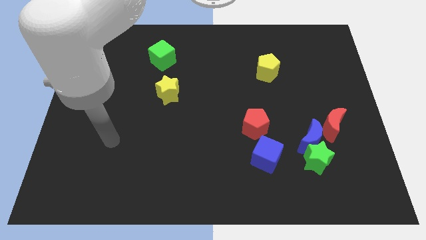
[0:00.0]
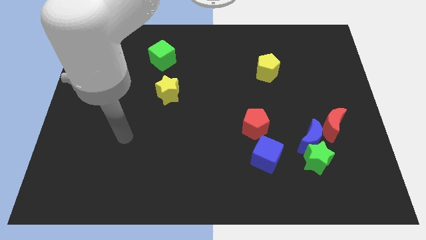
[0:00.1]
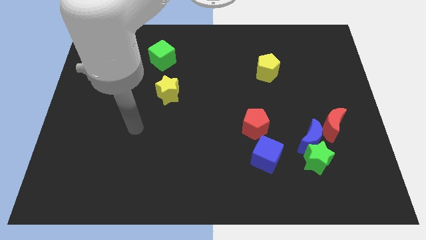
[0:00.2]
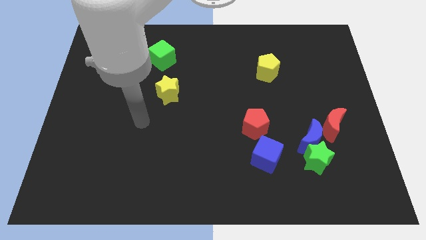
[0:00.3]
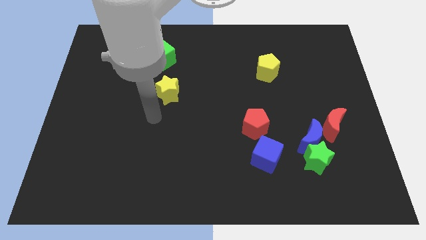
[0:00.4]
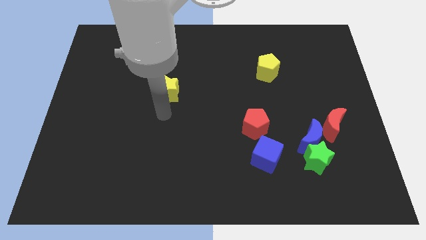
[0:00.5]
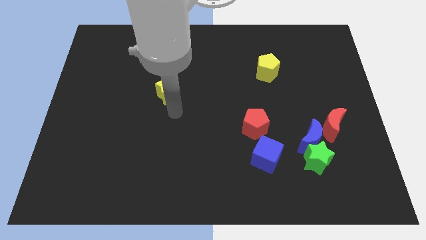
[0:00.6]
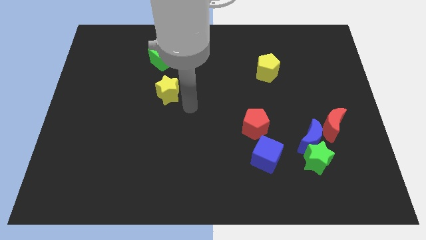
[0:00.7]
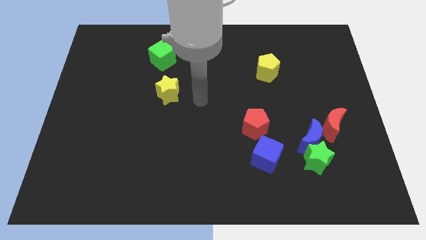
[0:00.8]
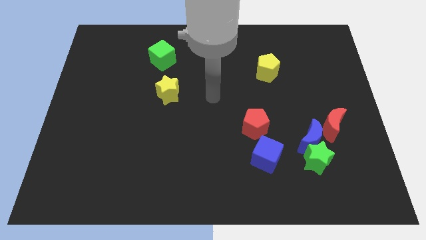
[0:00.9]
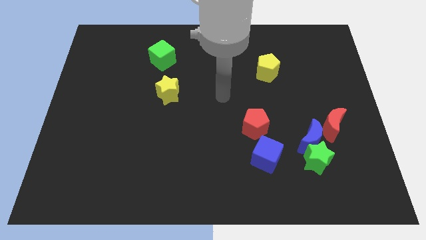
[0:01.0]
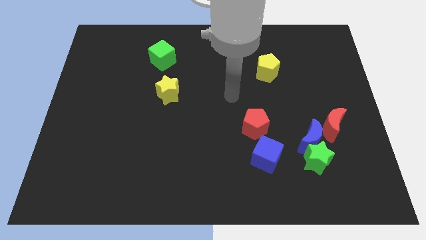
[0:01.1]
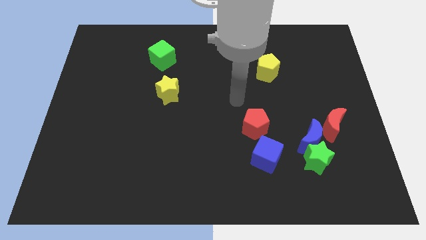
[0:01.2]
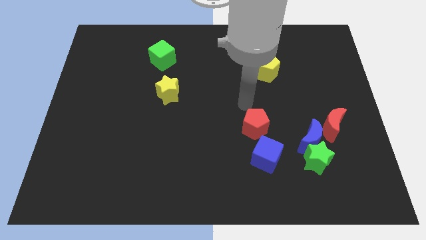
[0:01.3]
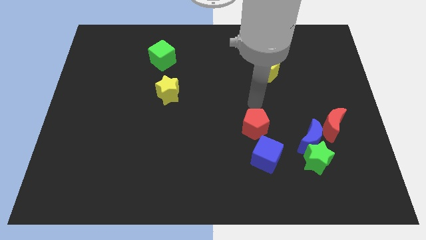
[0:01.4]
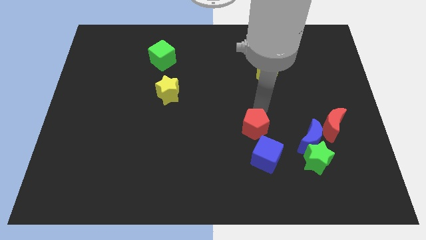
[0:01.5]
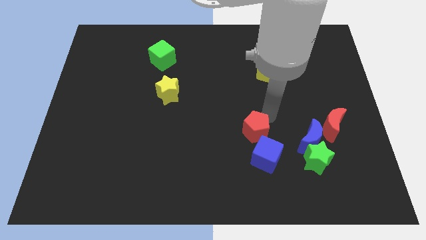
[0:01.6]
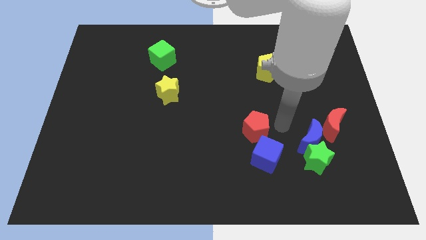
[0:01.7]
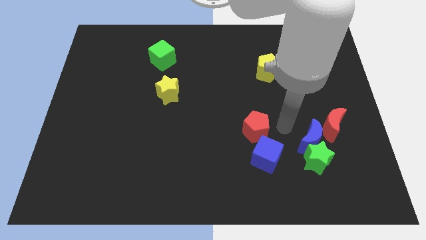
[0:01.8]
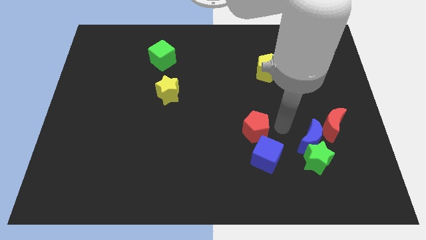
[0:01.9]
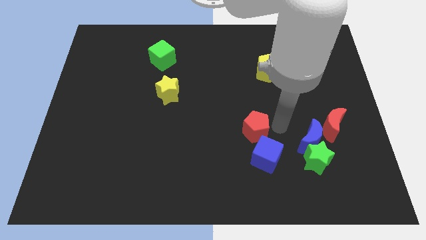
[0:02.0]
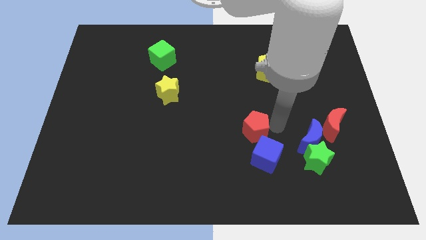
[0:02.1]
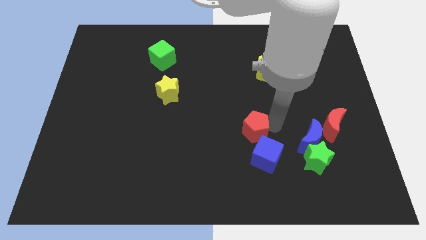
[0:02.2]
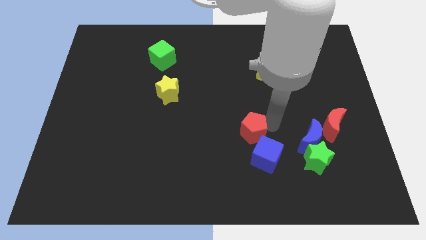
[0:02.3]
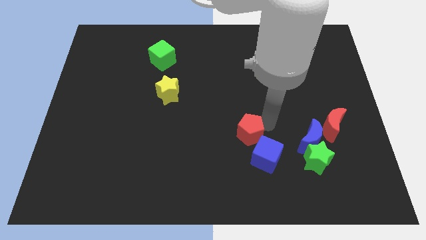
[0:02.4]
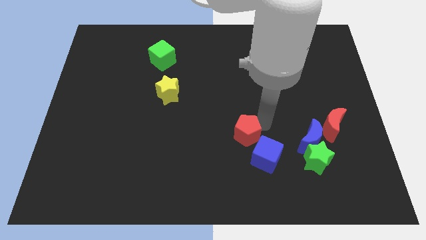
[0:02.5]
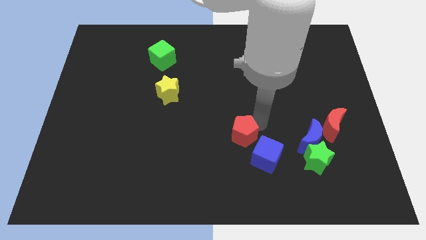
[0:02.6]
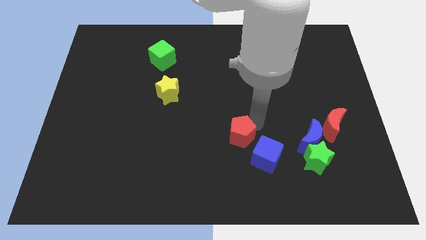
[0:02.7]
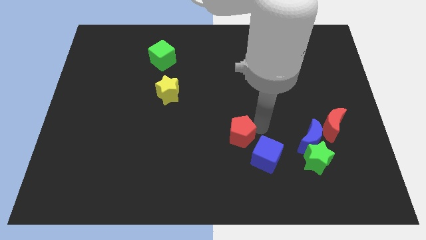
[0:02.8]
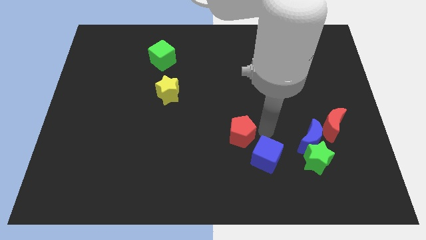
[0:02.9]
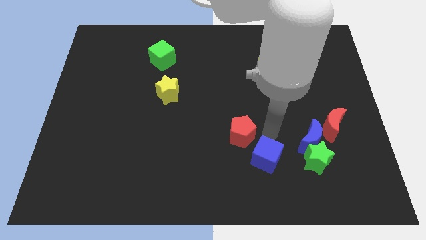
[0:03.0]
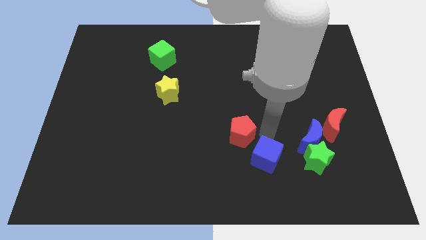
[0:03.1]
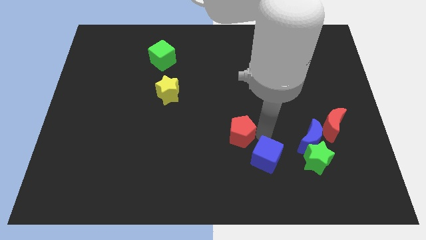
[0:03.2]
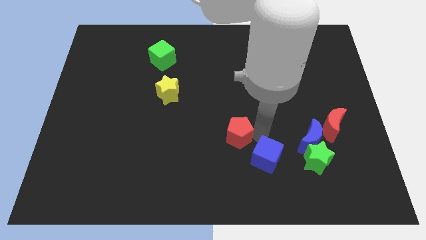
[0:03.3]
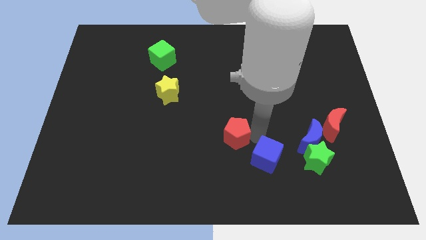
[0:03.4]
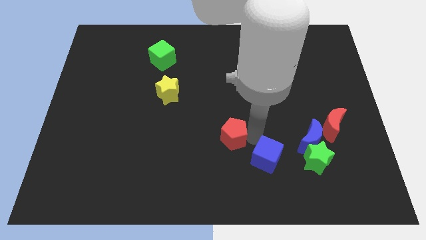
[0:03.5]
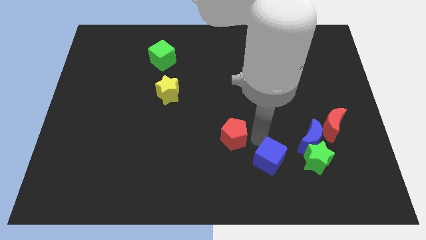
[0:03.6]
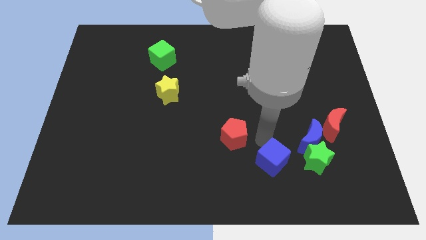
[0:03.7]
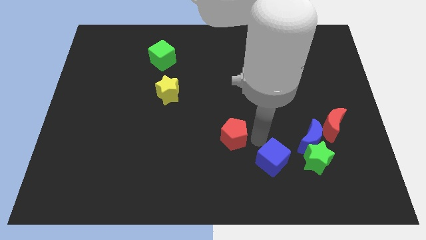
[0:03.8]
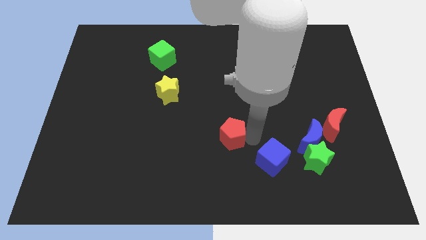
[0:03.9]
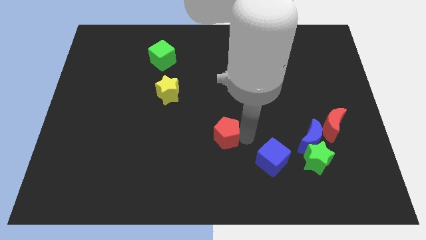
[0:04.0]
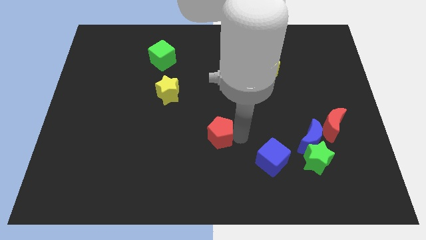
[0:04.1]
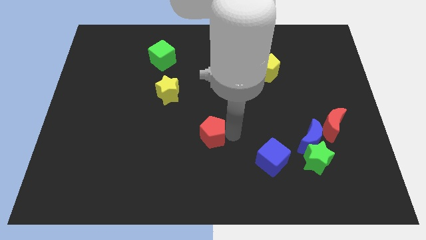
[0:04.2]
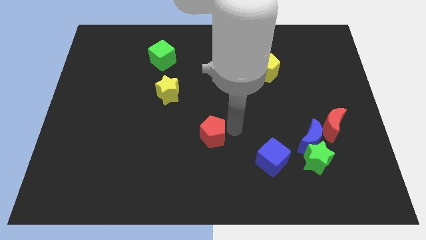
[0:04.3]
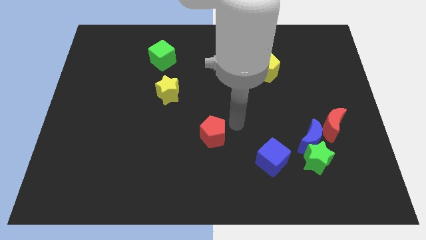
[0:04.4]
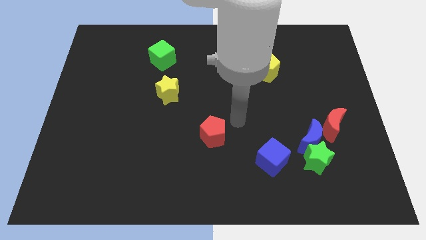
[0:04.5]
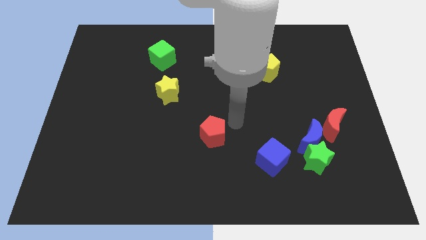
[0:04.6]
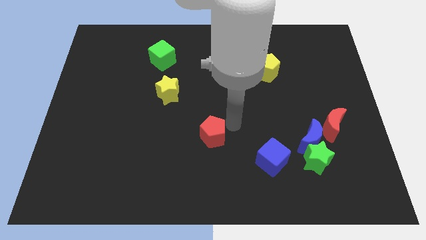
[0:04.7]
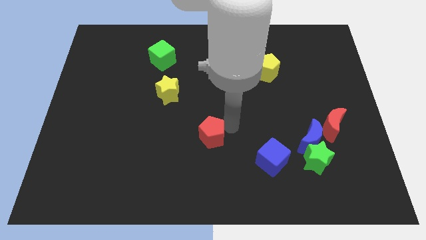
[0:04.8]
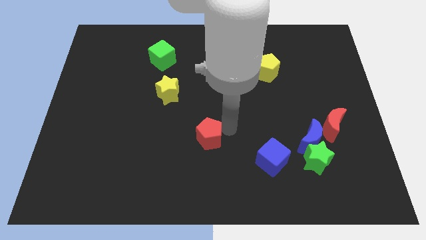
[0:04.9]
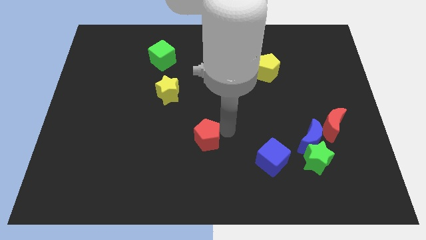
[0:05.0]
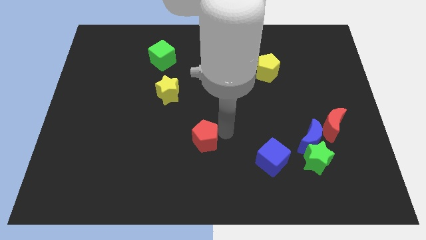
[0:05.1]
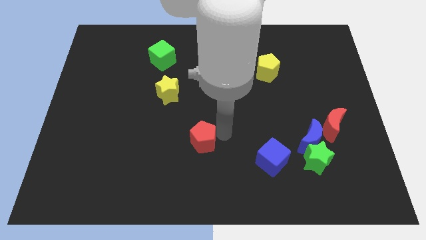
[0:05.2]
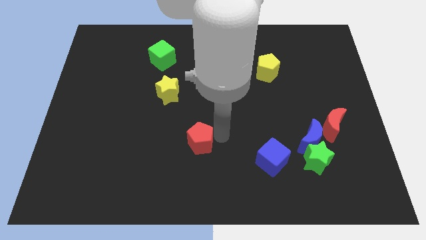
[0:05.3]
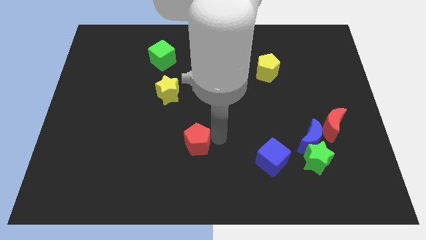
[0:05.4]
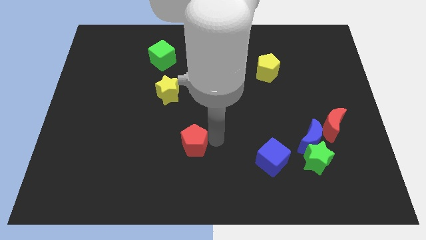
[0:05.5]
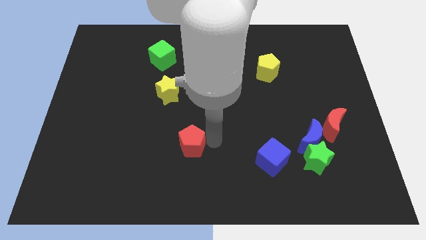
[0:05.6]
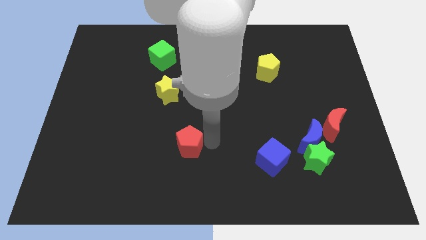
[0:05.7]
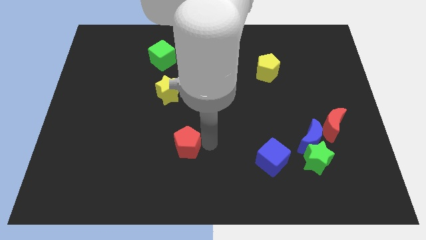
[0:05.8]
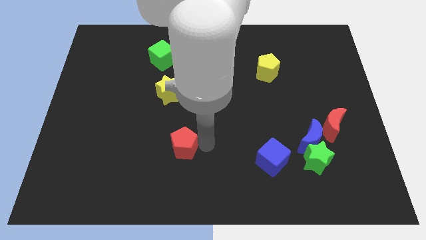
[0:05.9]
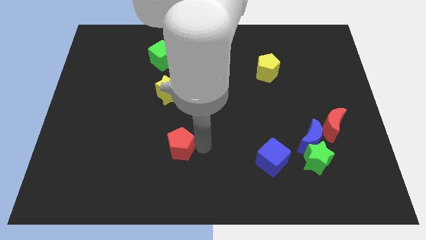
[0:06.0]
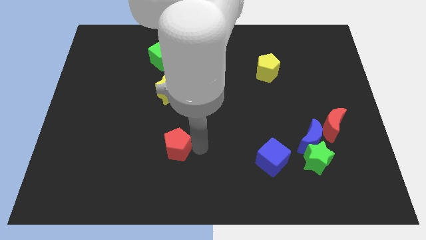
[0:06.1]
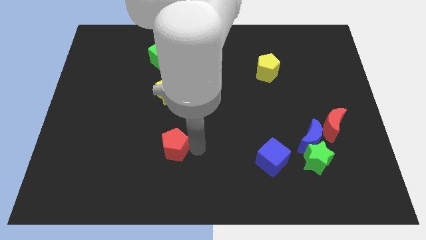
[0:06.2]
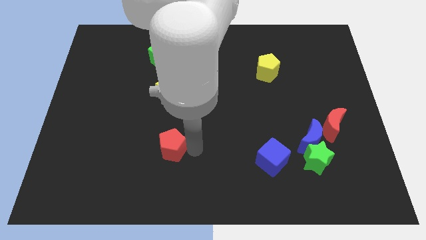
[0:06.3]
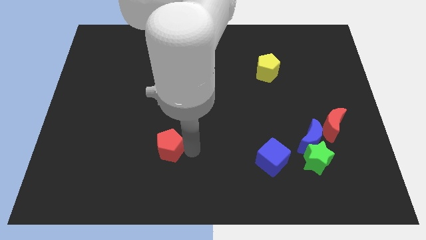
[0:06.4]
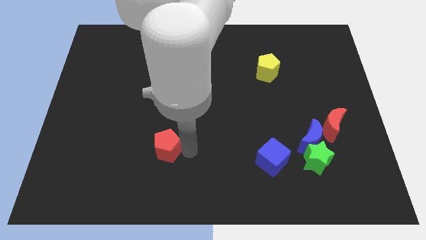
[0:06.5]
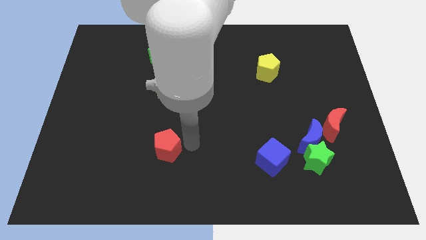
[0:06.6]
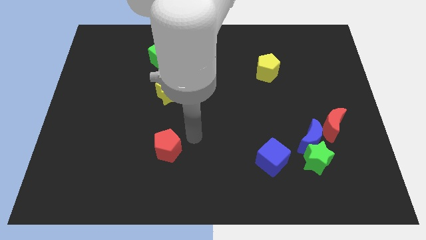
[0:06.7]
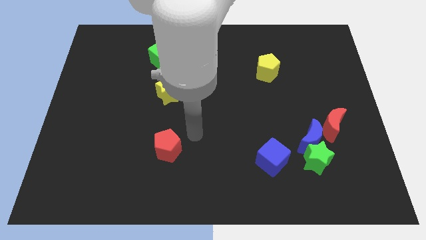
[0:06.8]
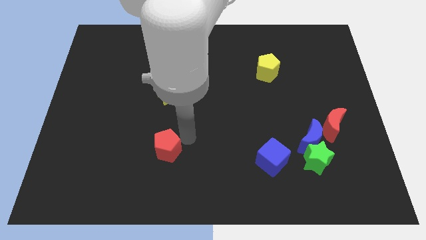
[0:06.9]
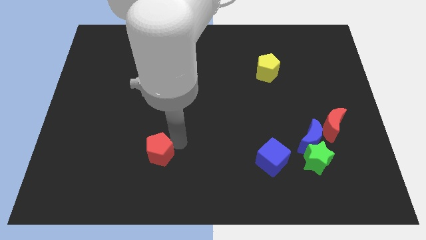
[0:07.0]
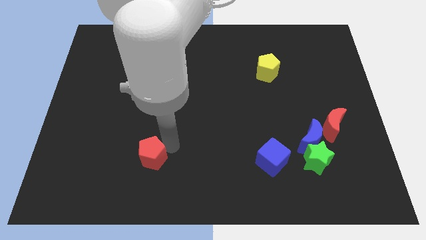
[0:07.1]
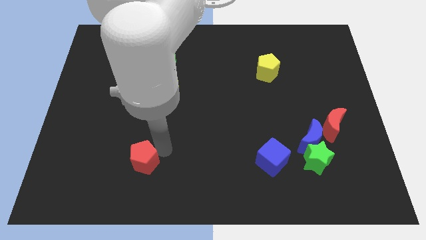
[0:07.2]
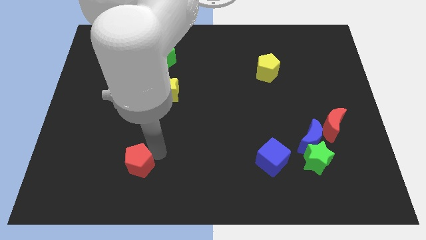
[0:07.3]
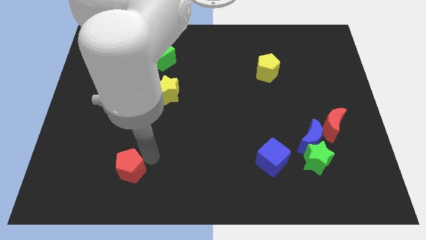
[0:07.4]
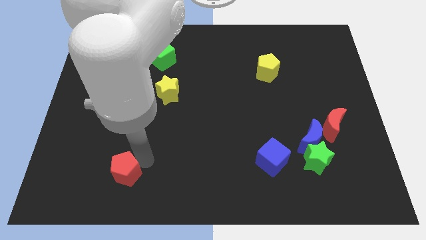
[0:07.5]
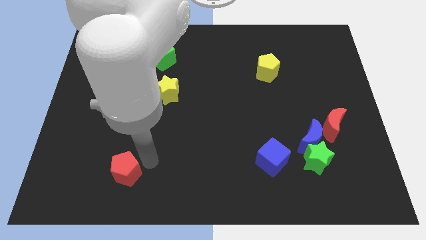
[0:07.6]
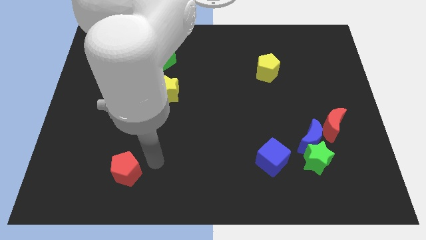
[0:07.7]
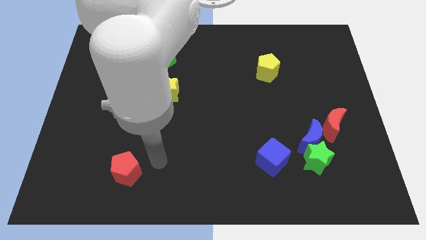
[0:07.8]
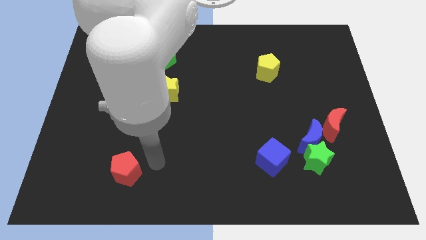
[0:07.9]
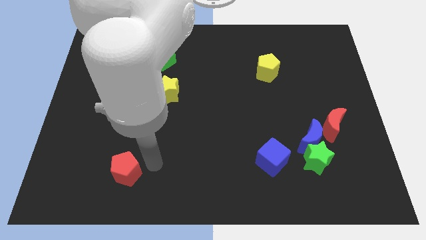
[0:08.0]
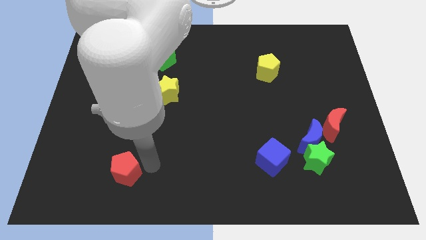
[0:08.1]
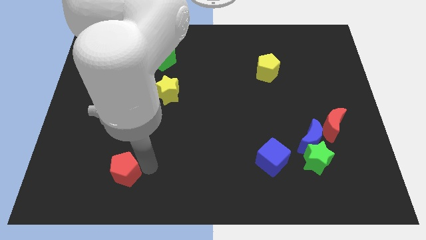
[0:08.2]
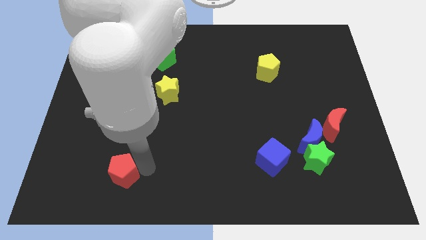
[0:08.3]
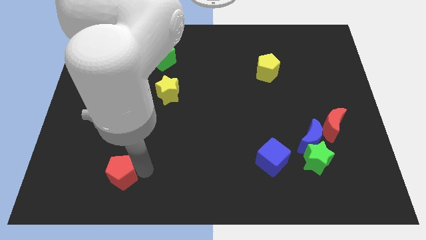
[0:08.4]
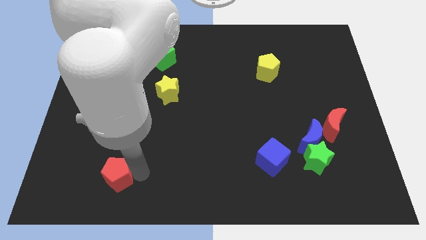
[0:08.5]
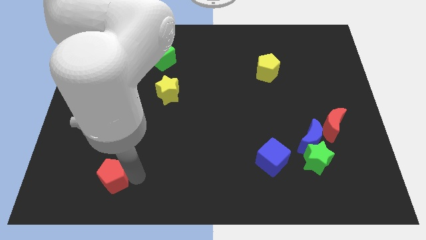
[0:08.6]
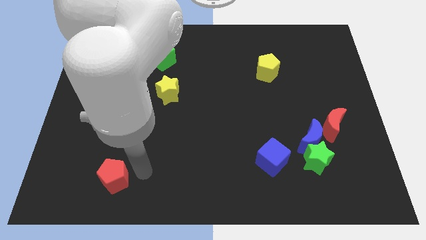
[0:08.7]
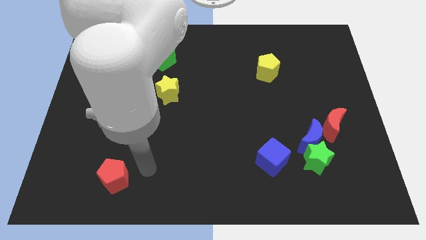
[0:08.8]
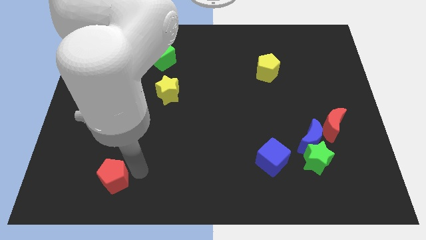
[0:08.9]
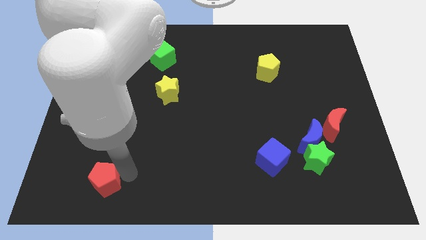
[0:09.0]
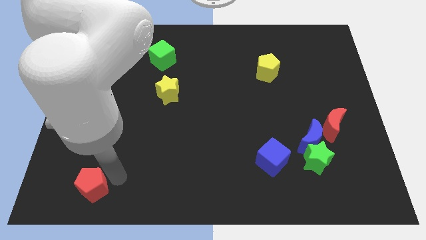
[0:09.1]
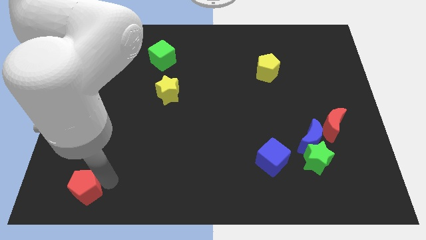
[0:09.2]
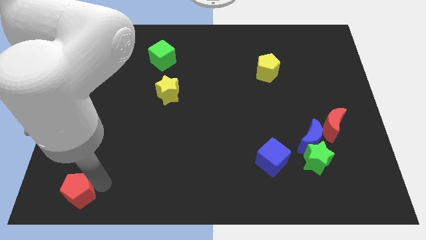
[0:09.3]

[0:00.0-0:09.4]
slide the red pentagon to the bottom left of the board
